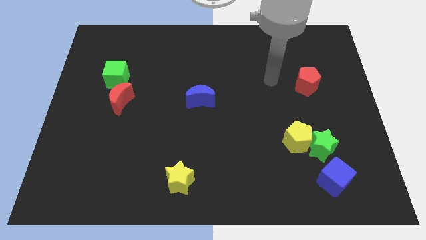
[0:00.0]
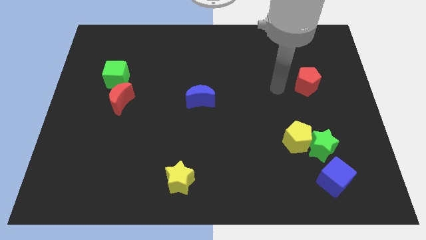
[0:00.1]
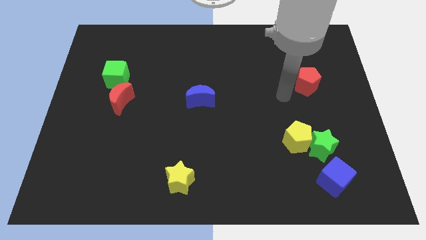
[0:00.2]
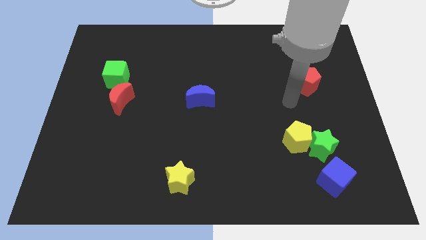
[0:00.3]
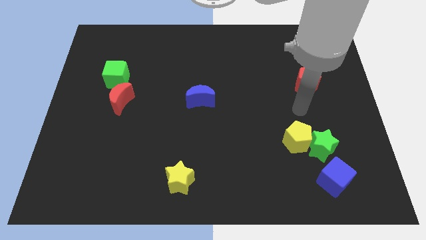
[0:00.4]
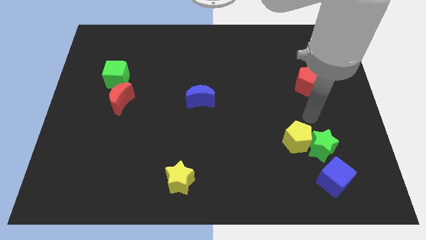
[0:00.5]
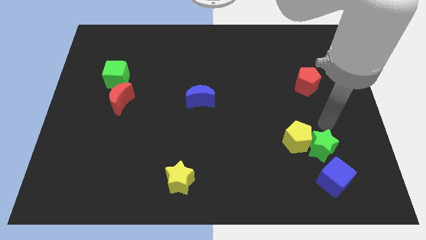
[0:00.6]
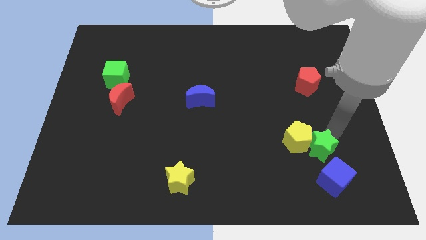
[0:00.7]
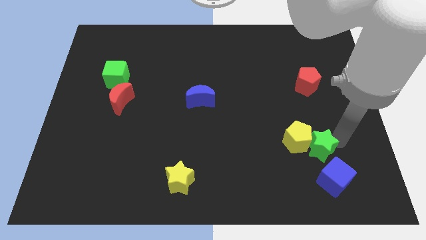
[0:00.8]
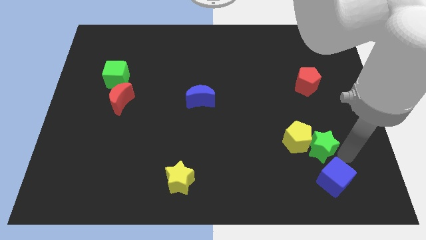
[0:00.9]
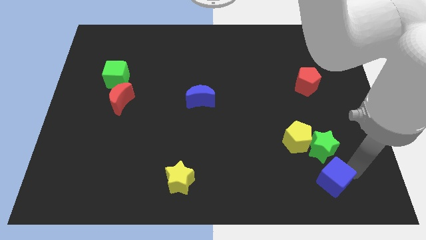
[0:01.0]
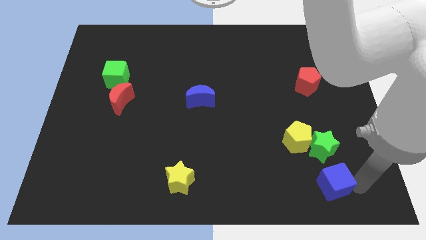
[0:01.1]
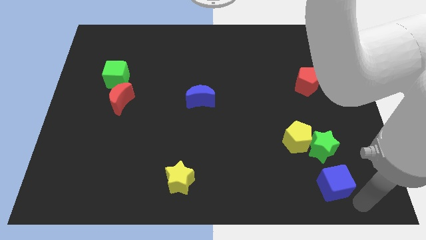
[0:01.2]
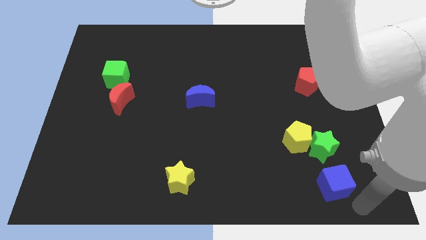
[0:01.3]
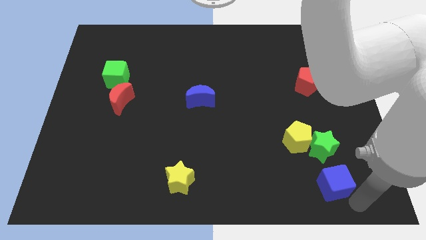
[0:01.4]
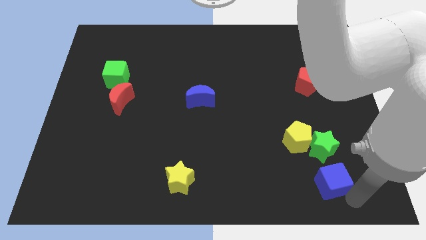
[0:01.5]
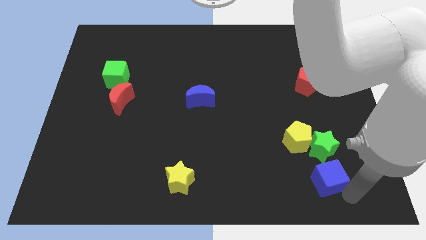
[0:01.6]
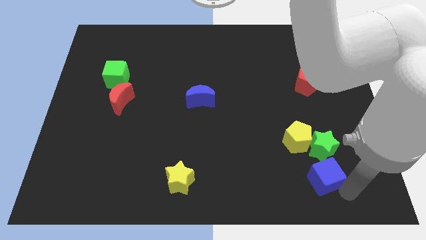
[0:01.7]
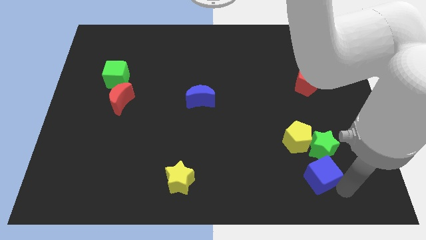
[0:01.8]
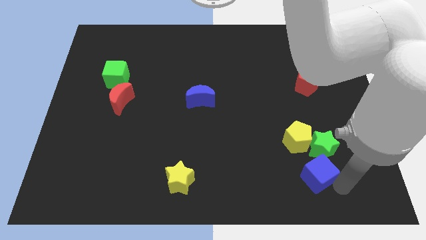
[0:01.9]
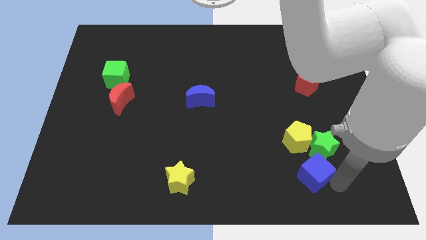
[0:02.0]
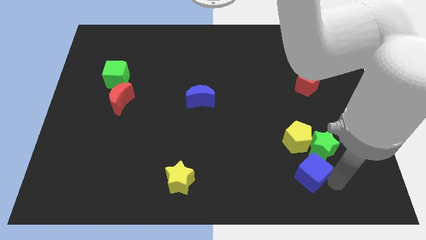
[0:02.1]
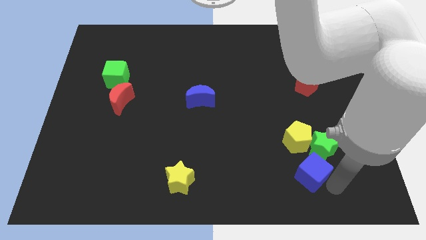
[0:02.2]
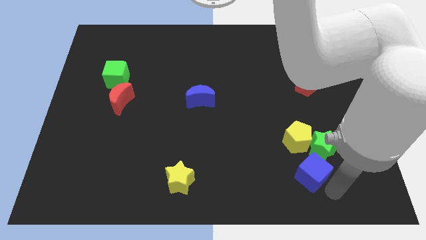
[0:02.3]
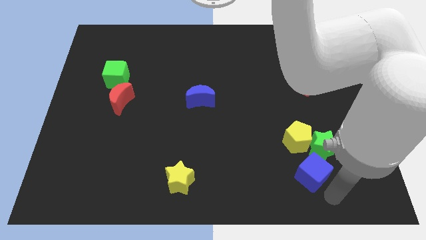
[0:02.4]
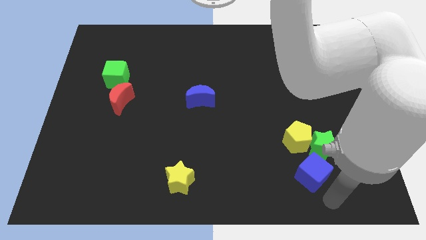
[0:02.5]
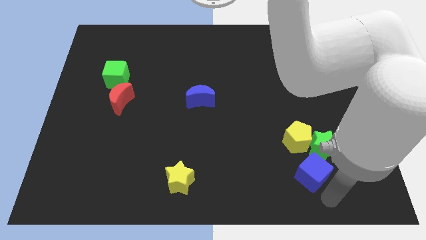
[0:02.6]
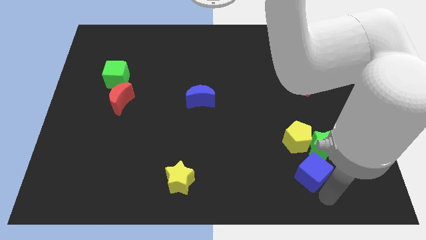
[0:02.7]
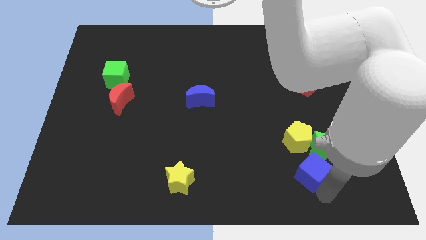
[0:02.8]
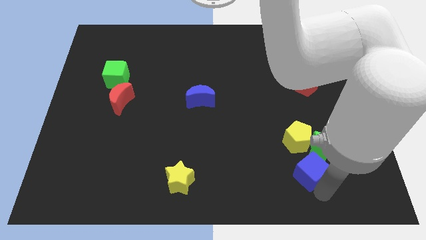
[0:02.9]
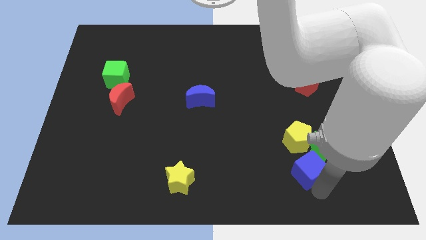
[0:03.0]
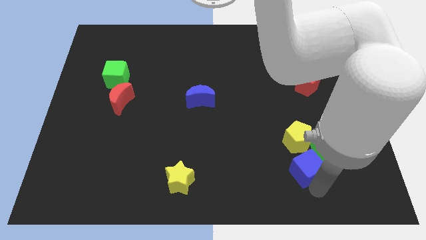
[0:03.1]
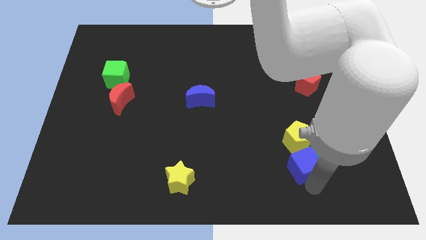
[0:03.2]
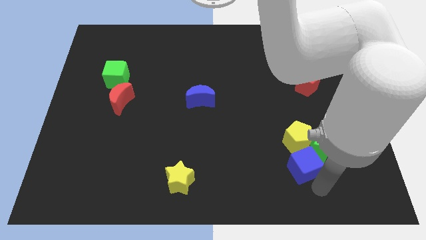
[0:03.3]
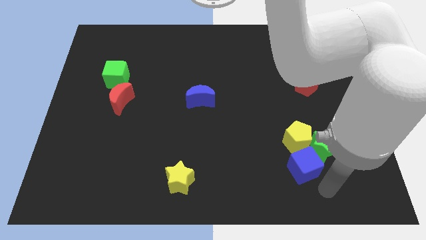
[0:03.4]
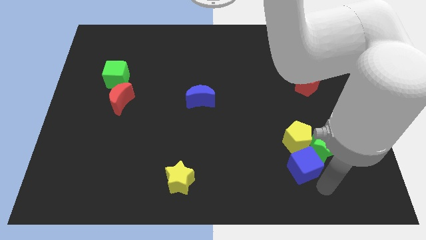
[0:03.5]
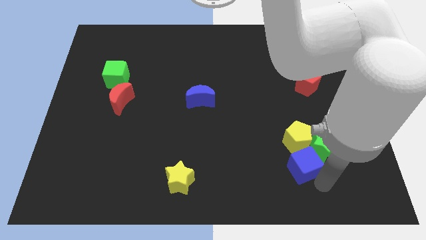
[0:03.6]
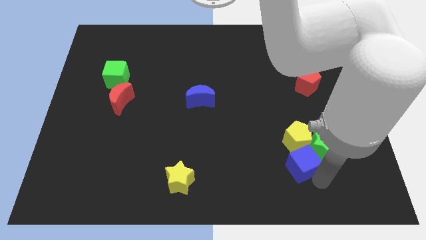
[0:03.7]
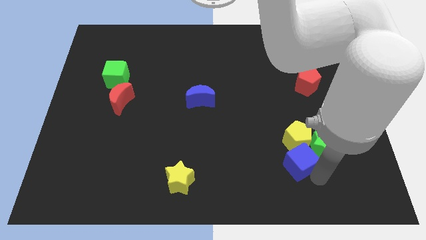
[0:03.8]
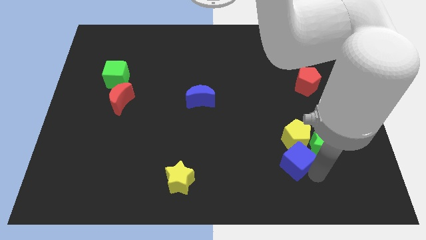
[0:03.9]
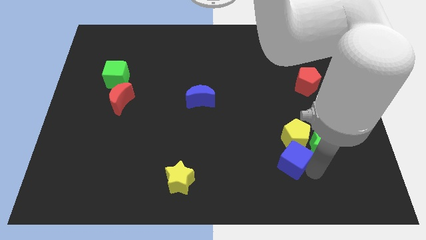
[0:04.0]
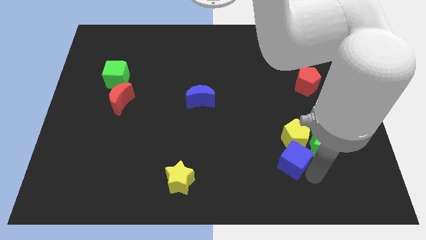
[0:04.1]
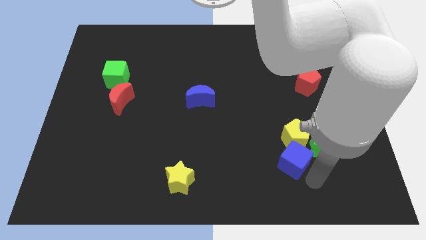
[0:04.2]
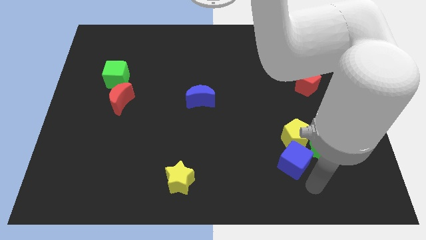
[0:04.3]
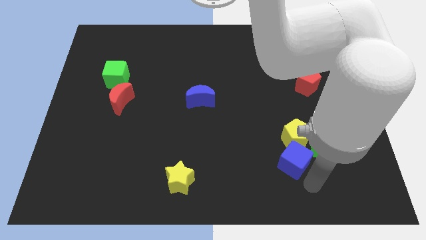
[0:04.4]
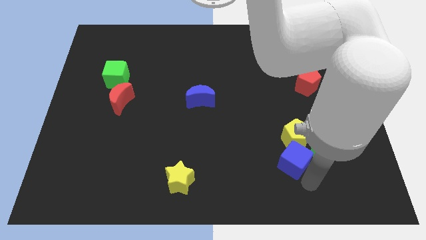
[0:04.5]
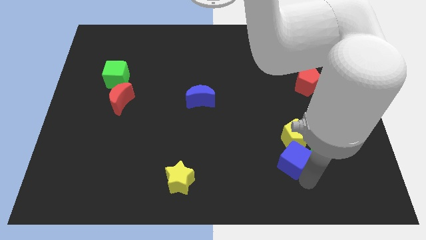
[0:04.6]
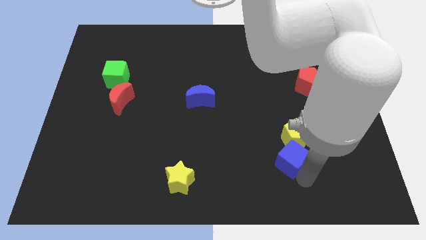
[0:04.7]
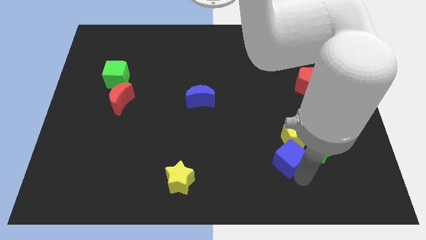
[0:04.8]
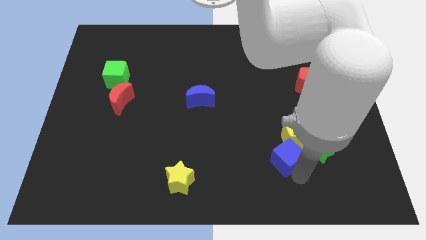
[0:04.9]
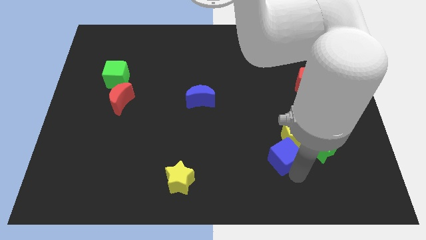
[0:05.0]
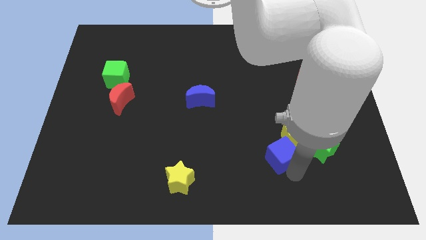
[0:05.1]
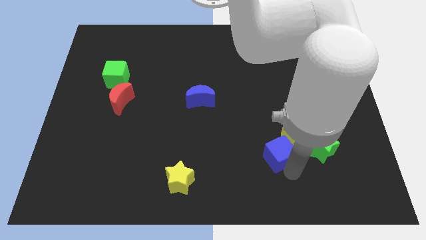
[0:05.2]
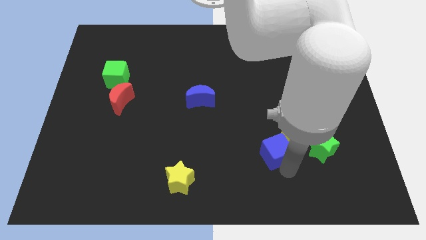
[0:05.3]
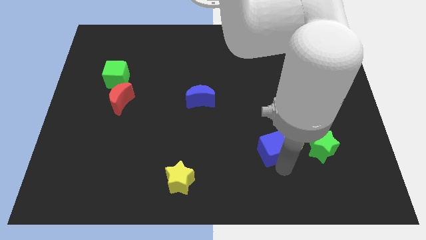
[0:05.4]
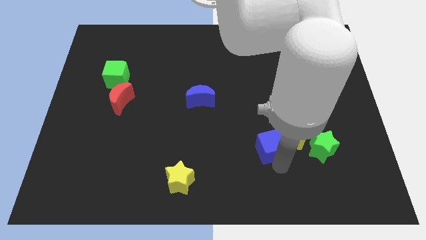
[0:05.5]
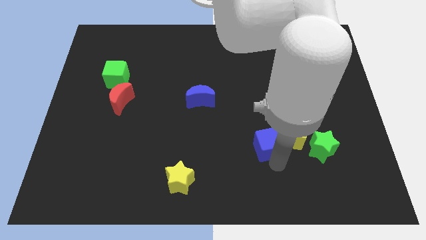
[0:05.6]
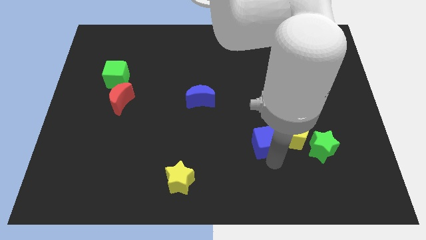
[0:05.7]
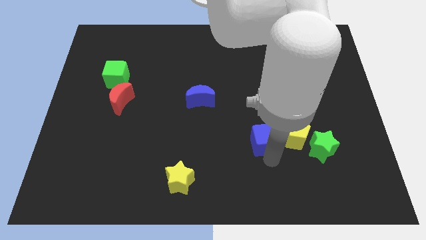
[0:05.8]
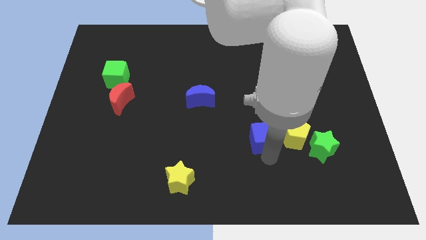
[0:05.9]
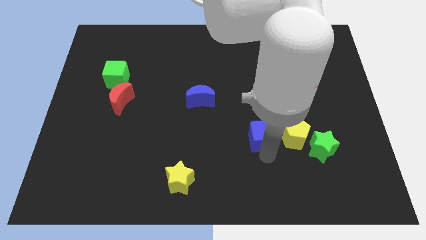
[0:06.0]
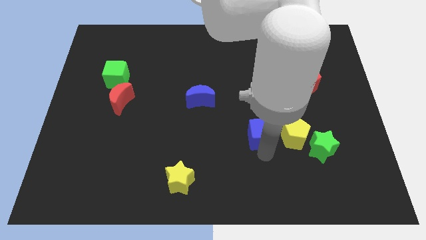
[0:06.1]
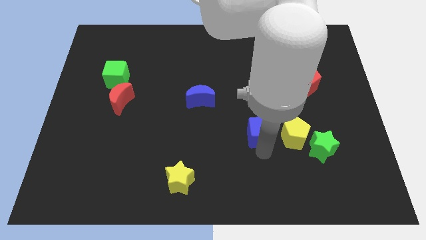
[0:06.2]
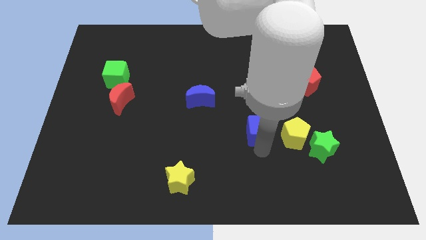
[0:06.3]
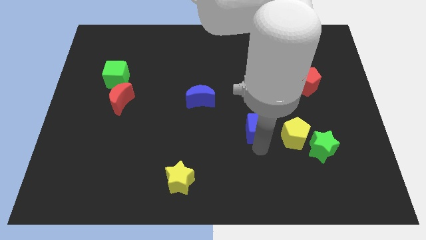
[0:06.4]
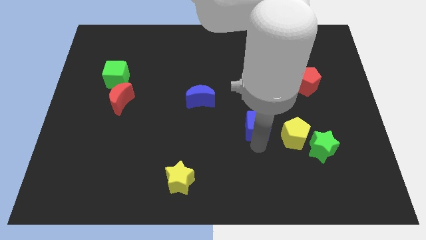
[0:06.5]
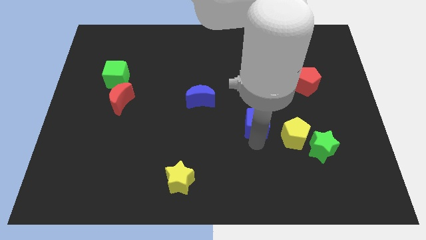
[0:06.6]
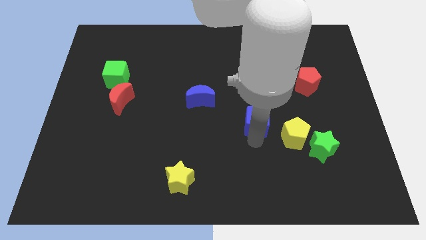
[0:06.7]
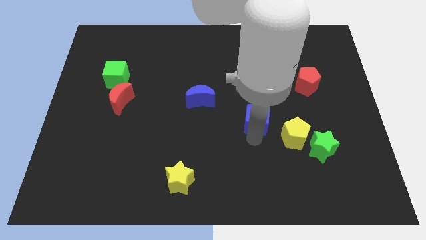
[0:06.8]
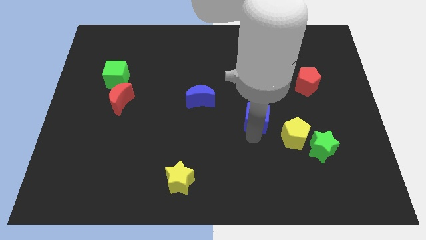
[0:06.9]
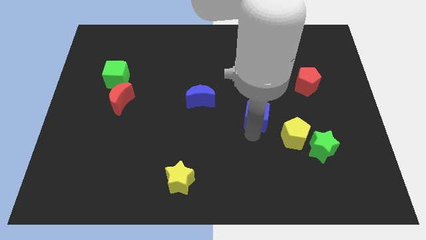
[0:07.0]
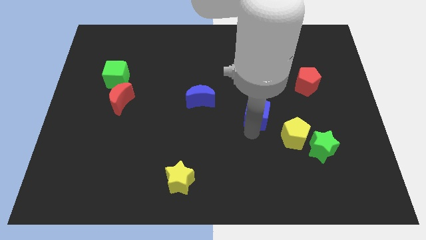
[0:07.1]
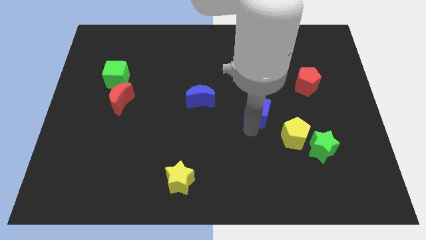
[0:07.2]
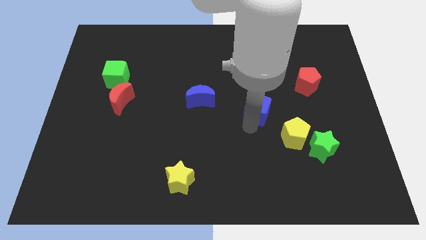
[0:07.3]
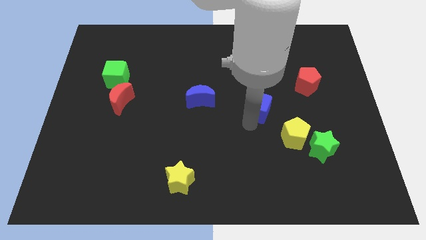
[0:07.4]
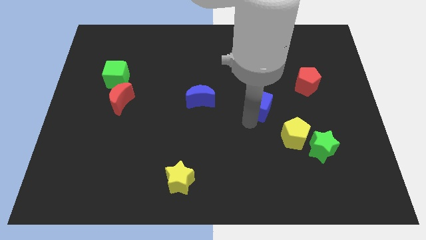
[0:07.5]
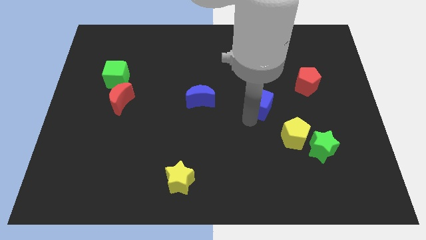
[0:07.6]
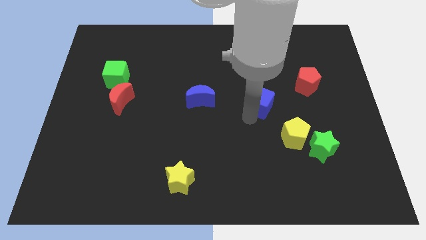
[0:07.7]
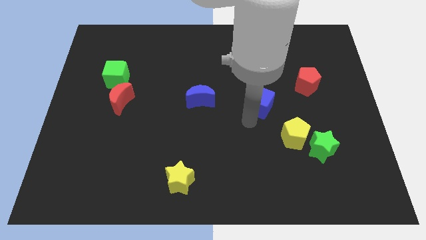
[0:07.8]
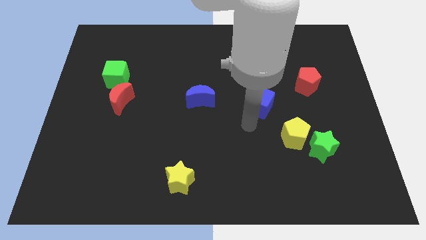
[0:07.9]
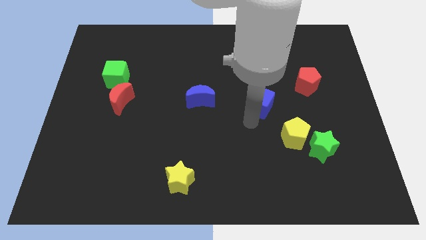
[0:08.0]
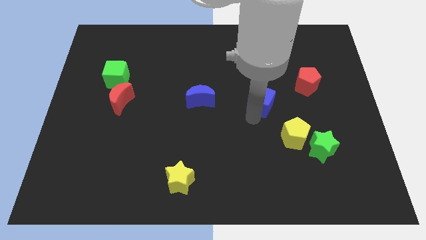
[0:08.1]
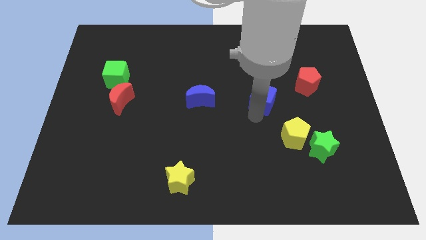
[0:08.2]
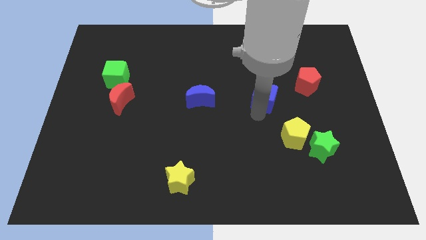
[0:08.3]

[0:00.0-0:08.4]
put the blue cube to the left of the red pentagon
